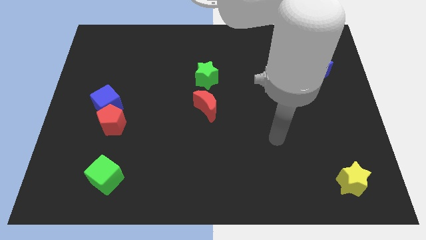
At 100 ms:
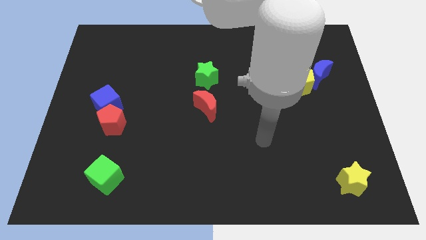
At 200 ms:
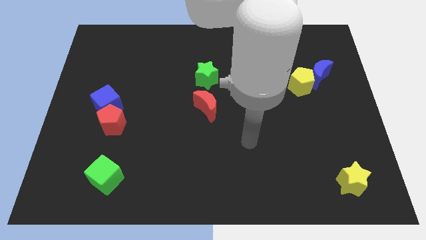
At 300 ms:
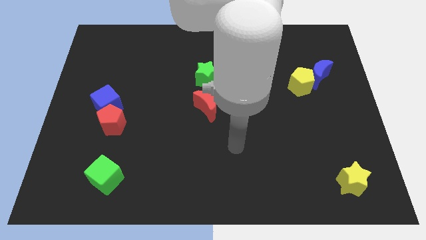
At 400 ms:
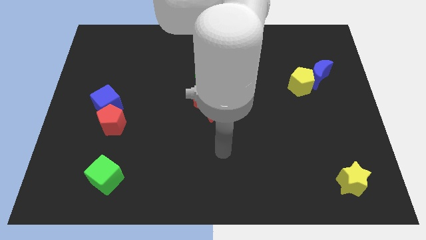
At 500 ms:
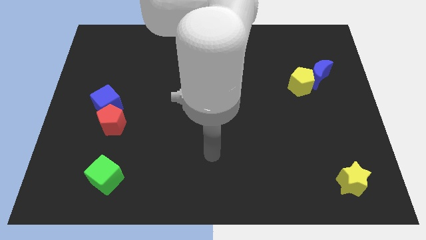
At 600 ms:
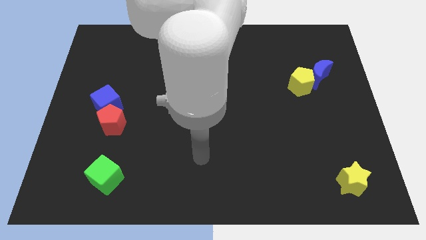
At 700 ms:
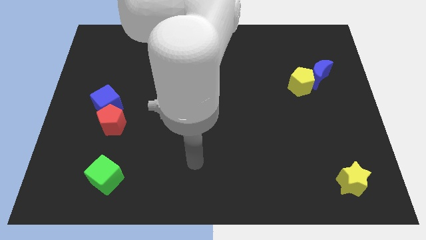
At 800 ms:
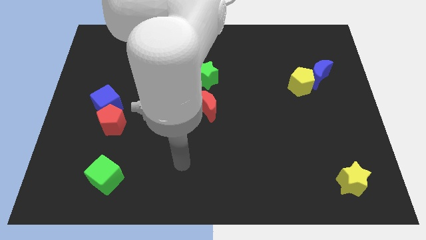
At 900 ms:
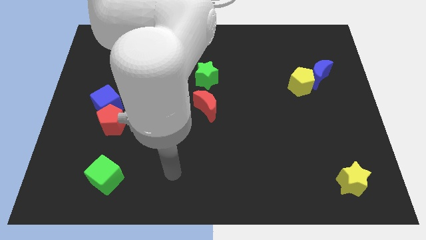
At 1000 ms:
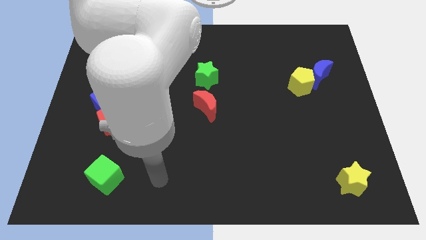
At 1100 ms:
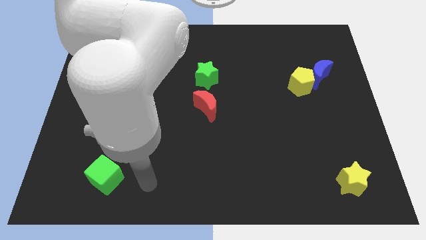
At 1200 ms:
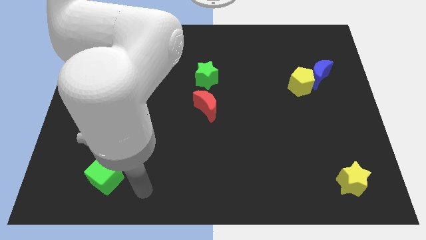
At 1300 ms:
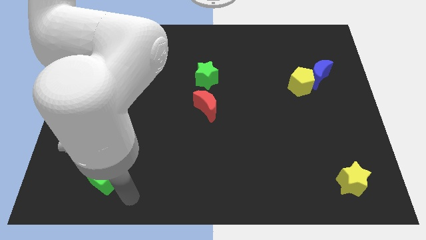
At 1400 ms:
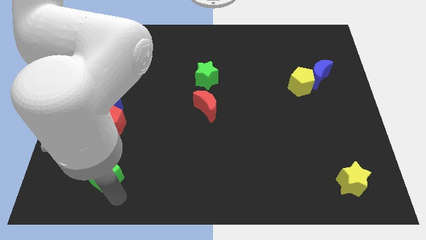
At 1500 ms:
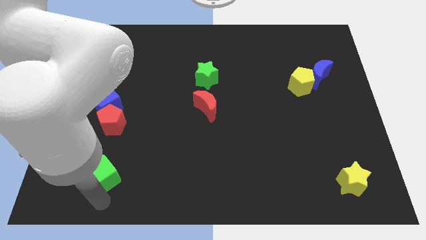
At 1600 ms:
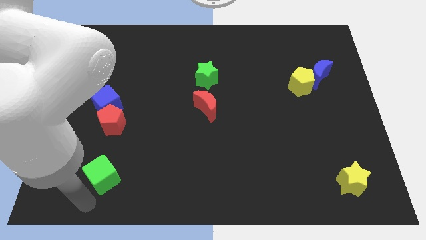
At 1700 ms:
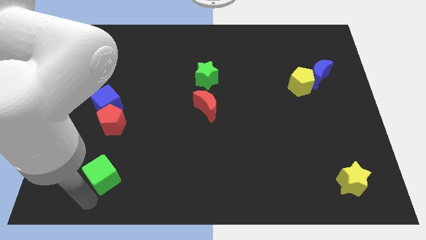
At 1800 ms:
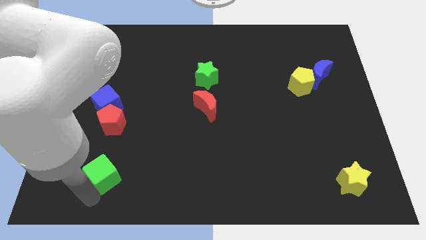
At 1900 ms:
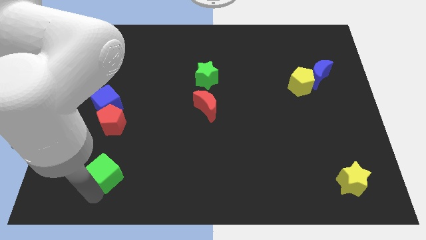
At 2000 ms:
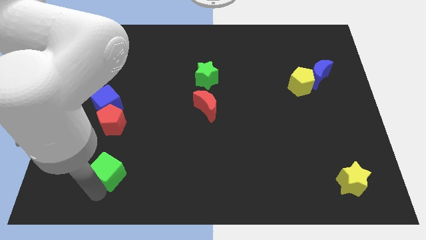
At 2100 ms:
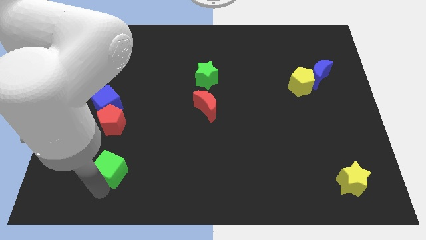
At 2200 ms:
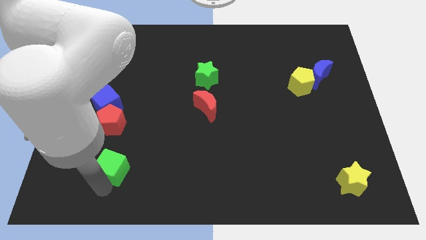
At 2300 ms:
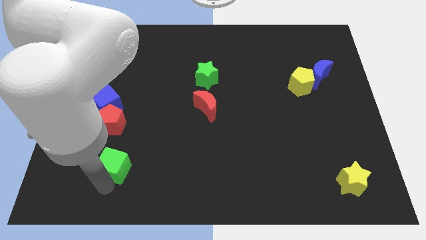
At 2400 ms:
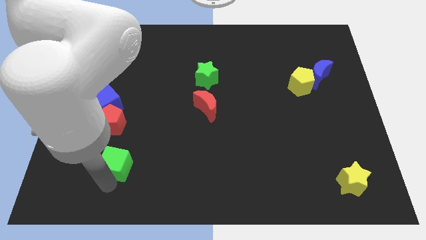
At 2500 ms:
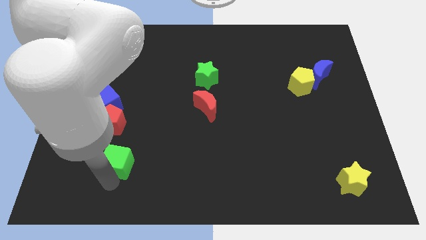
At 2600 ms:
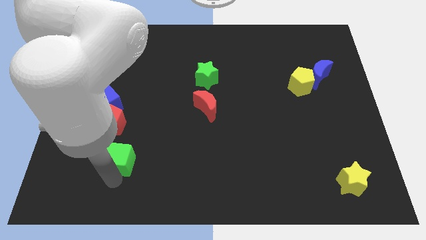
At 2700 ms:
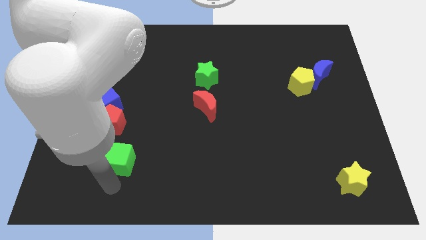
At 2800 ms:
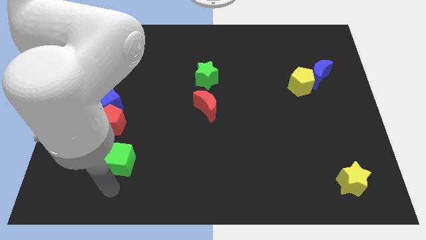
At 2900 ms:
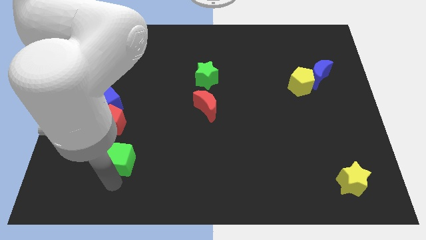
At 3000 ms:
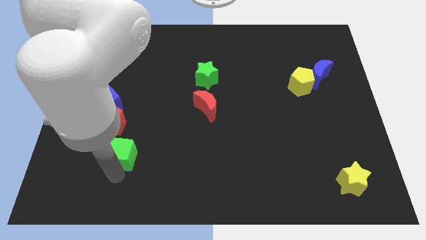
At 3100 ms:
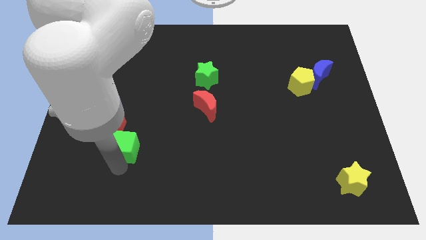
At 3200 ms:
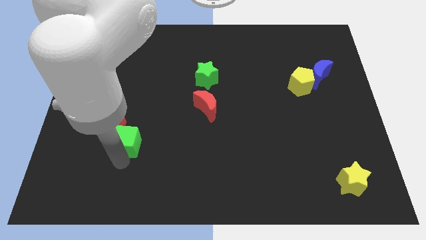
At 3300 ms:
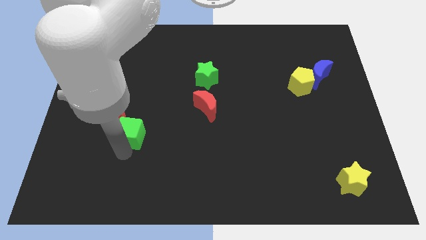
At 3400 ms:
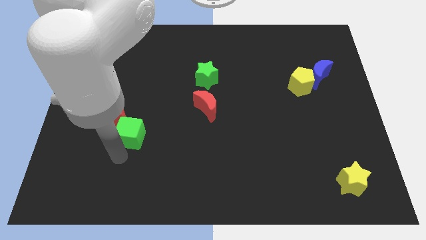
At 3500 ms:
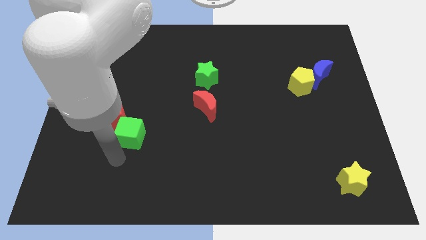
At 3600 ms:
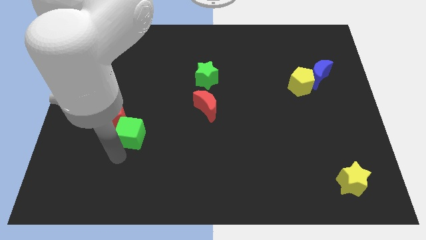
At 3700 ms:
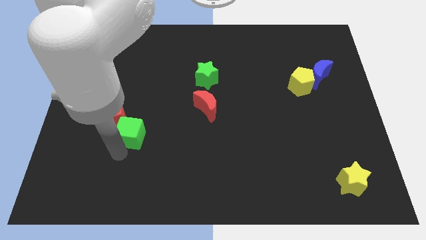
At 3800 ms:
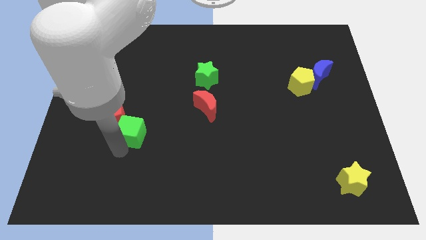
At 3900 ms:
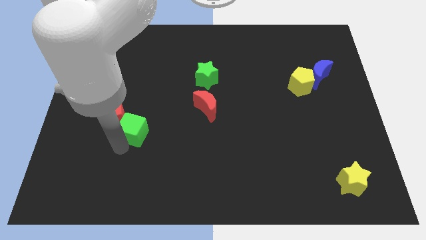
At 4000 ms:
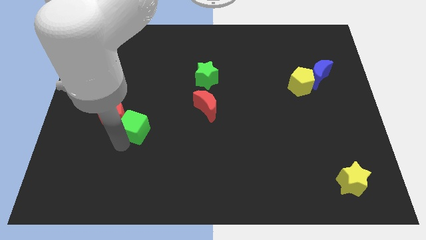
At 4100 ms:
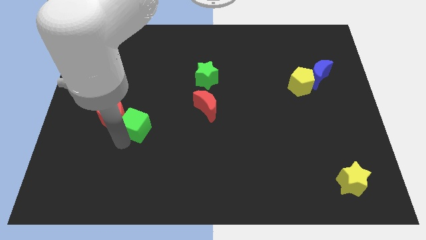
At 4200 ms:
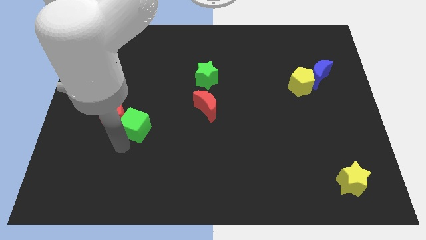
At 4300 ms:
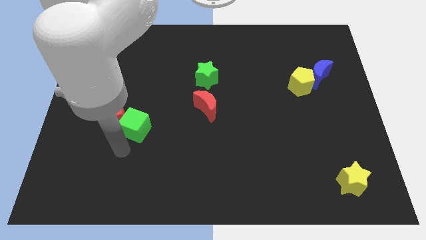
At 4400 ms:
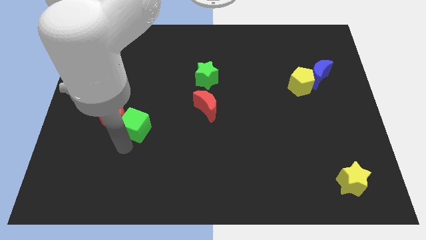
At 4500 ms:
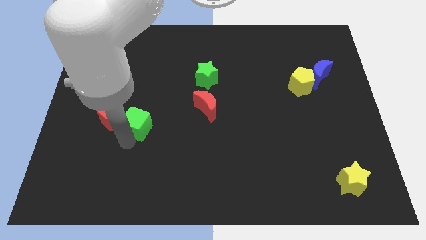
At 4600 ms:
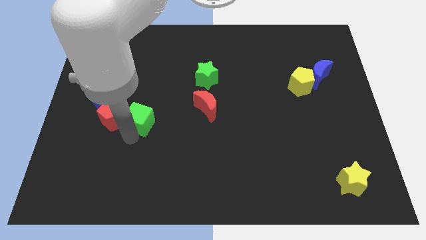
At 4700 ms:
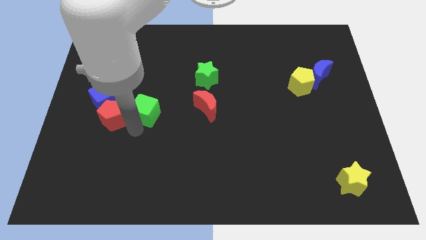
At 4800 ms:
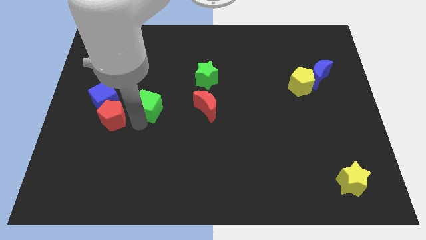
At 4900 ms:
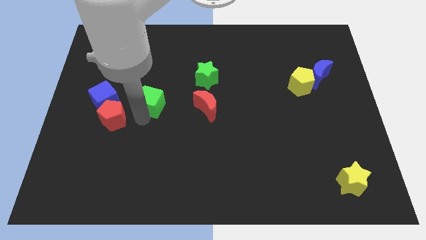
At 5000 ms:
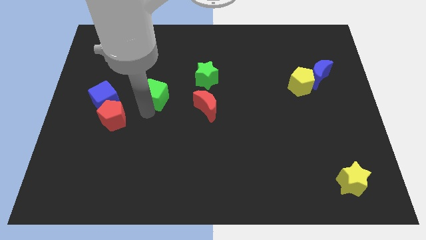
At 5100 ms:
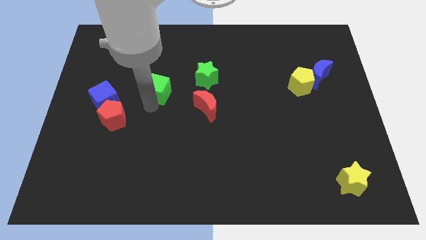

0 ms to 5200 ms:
move the green cube left of the green star

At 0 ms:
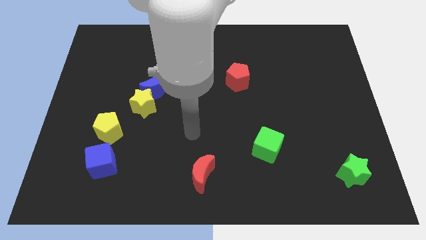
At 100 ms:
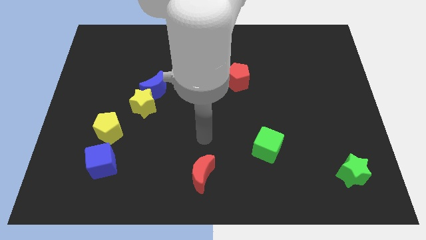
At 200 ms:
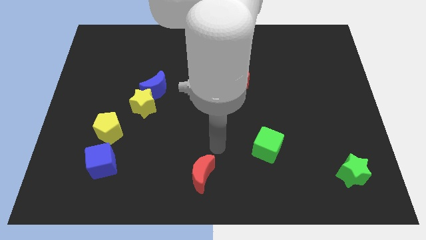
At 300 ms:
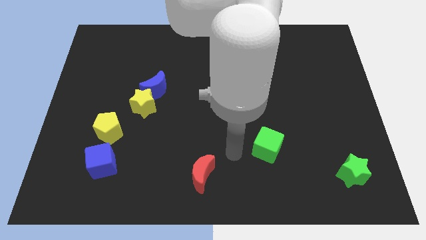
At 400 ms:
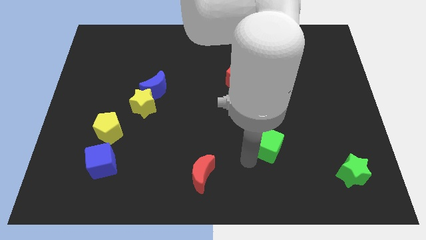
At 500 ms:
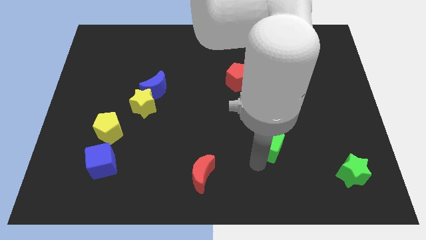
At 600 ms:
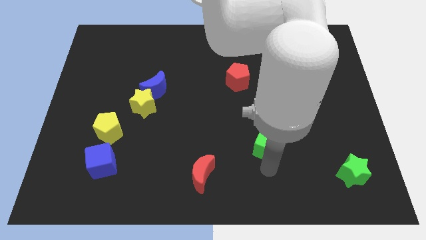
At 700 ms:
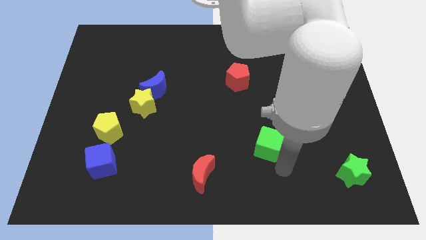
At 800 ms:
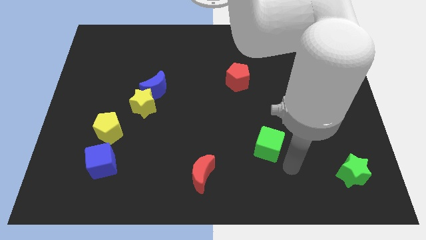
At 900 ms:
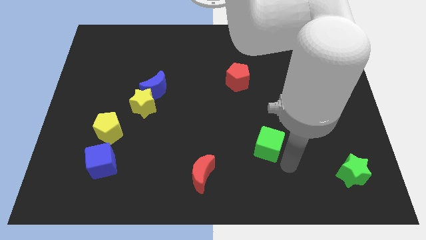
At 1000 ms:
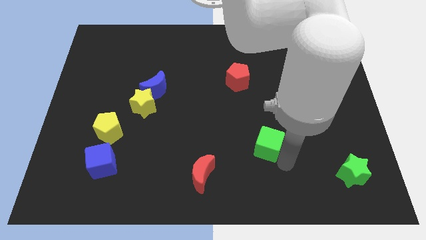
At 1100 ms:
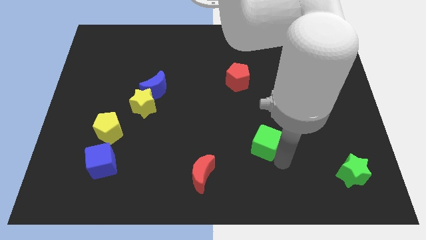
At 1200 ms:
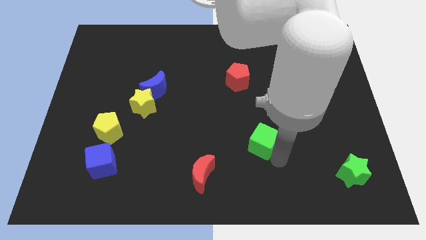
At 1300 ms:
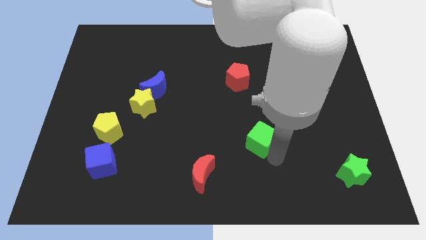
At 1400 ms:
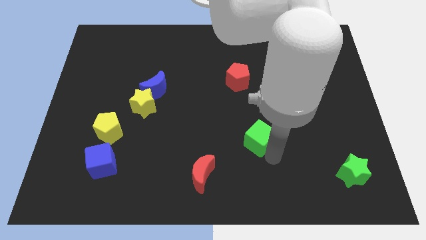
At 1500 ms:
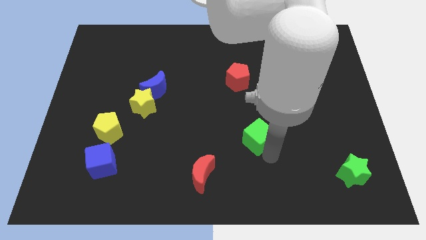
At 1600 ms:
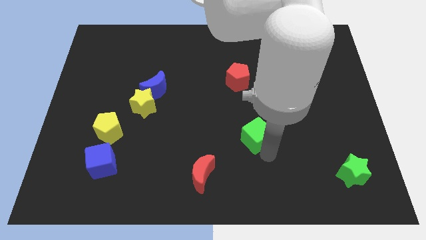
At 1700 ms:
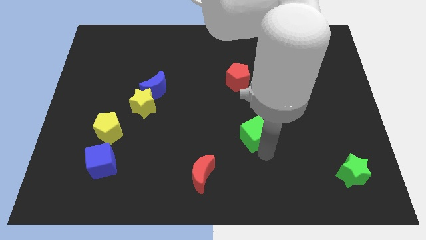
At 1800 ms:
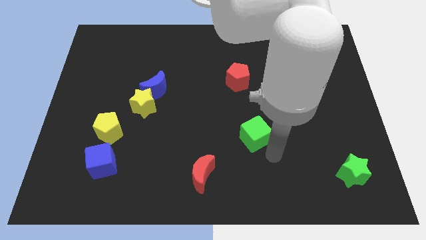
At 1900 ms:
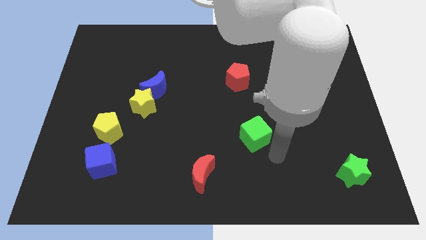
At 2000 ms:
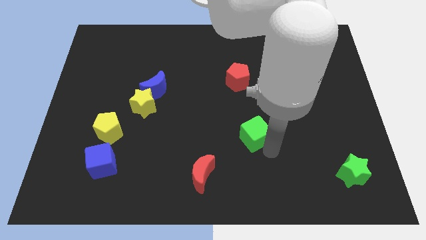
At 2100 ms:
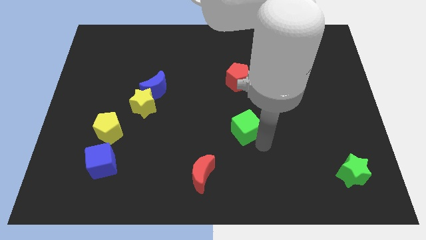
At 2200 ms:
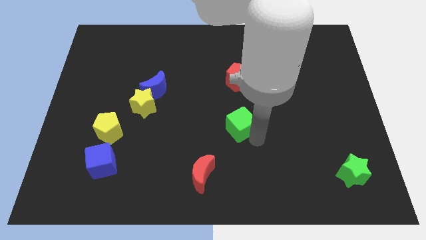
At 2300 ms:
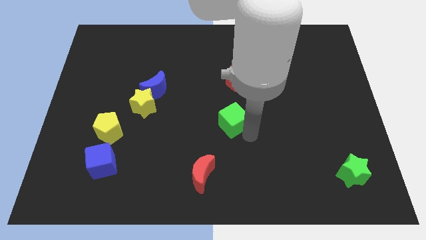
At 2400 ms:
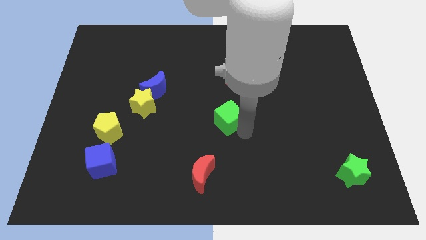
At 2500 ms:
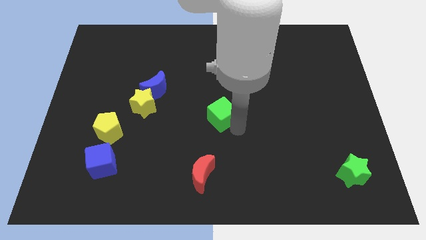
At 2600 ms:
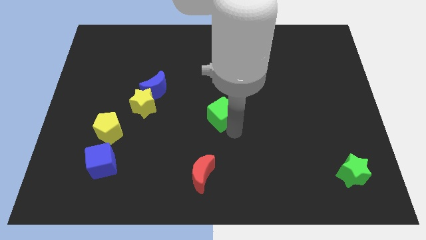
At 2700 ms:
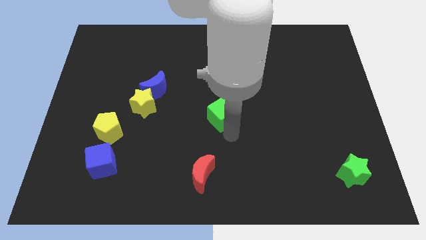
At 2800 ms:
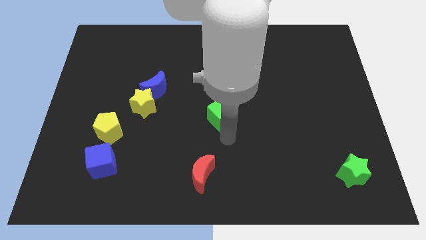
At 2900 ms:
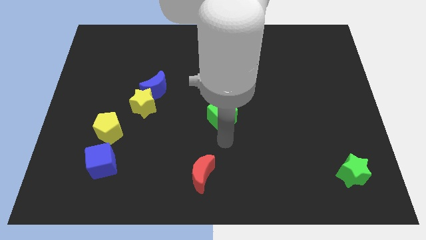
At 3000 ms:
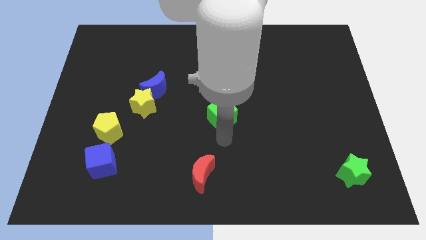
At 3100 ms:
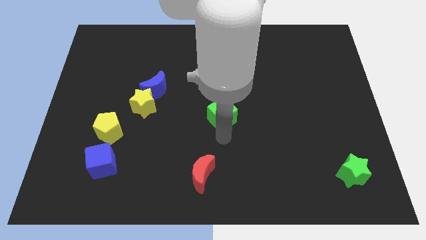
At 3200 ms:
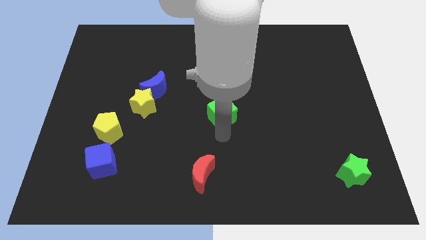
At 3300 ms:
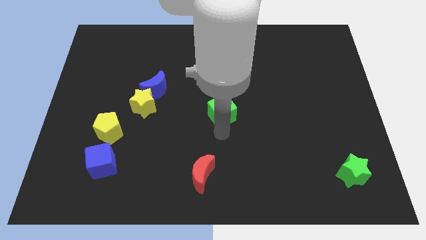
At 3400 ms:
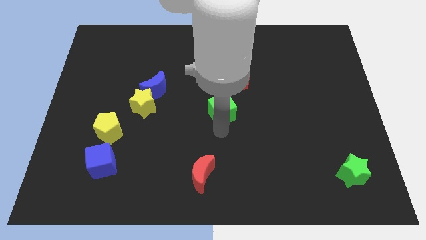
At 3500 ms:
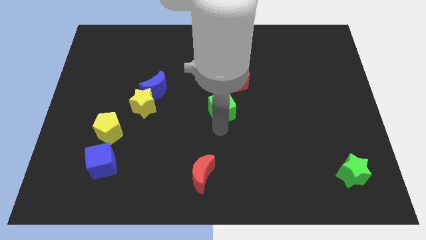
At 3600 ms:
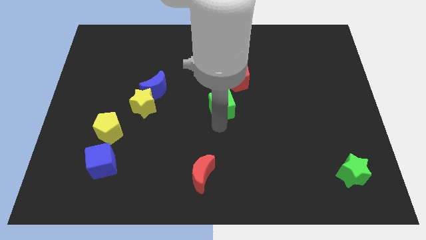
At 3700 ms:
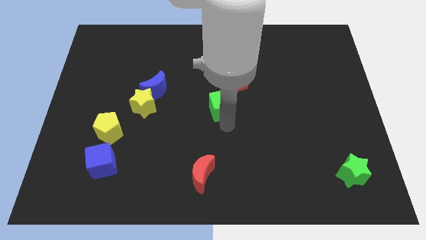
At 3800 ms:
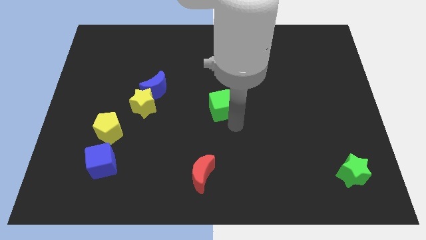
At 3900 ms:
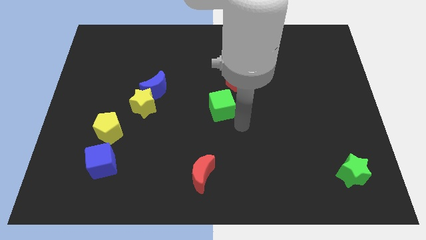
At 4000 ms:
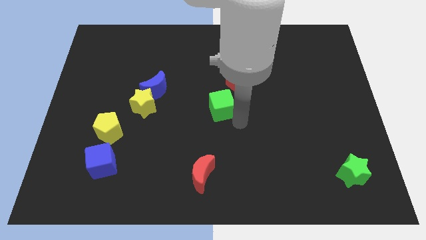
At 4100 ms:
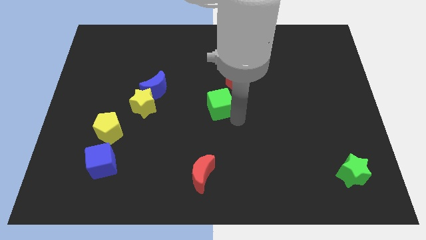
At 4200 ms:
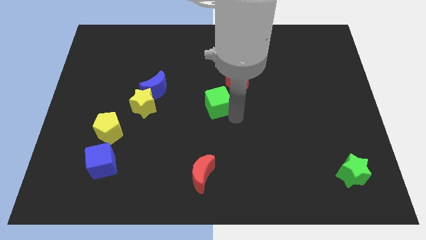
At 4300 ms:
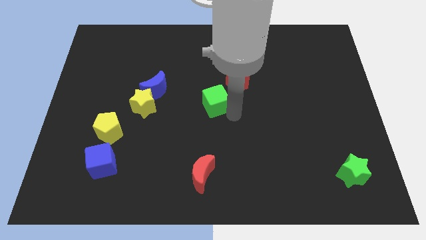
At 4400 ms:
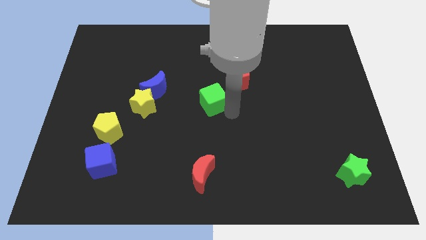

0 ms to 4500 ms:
move the green cube to the right of the blue moon
